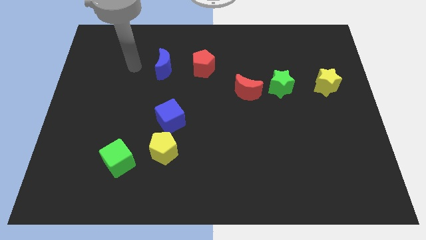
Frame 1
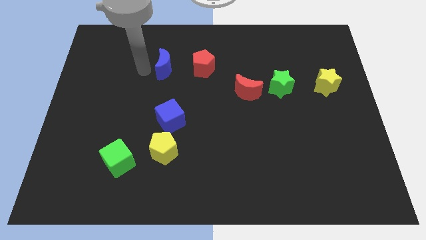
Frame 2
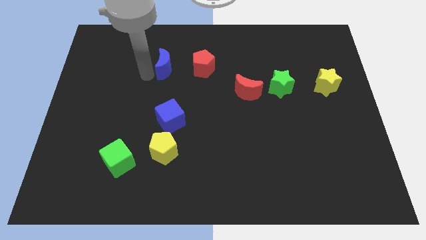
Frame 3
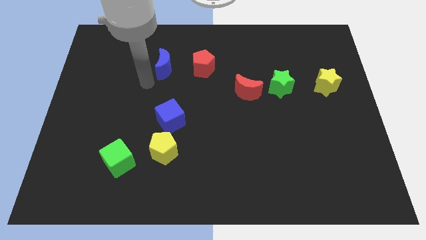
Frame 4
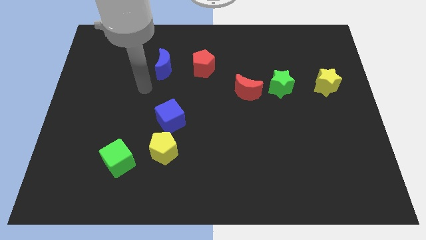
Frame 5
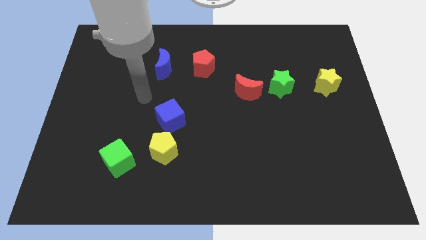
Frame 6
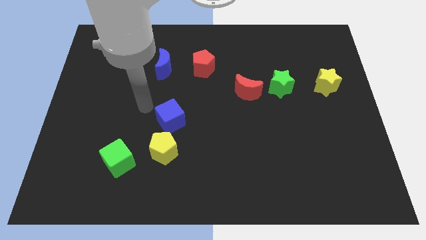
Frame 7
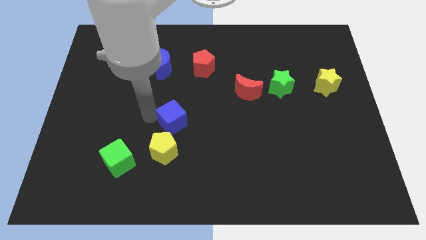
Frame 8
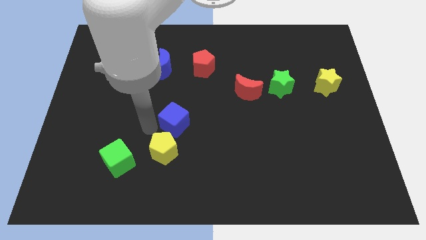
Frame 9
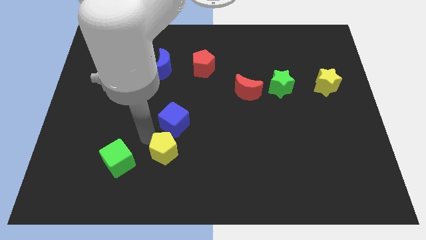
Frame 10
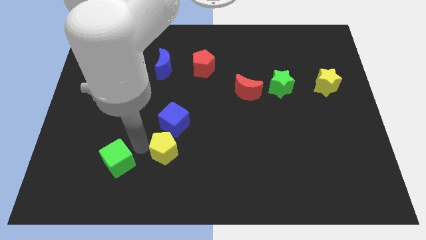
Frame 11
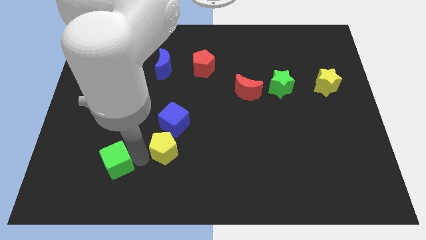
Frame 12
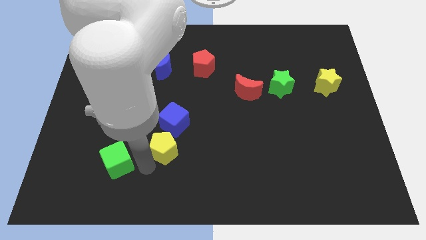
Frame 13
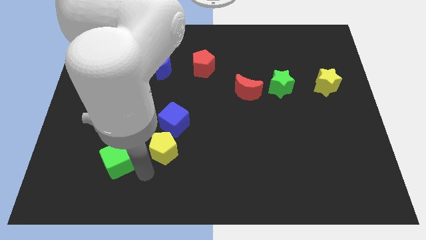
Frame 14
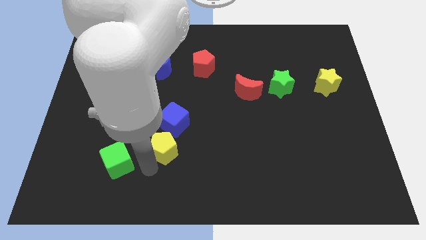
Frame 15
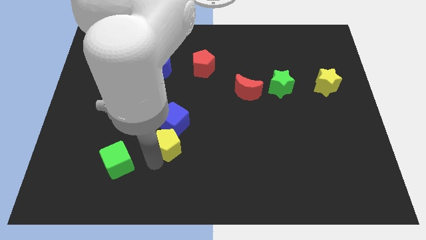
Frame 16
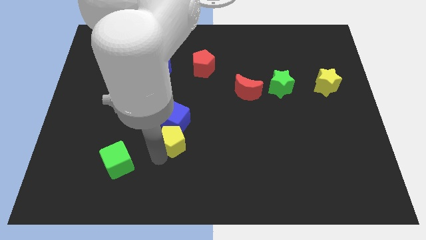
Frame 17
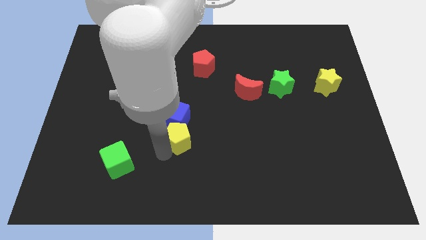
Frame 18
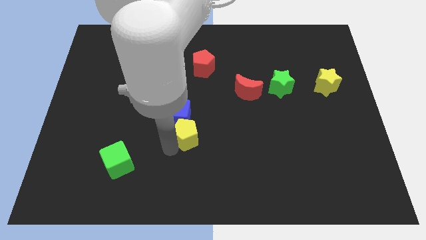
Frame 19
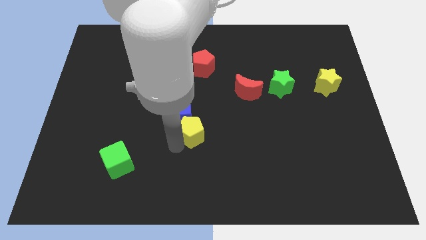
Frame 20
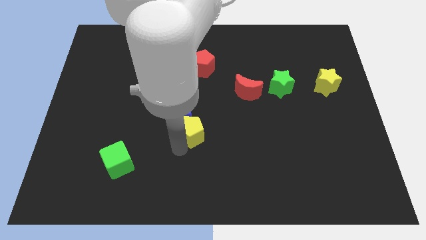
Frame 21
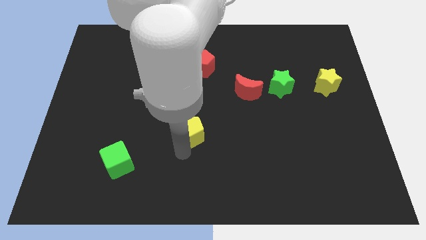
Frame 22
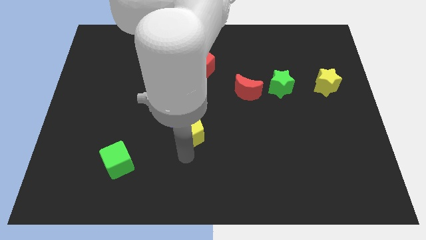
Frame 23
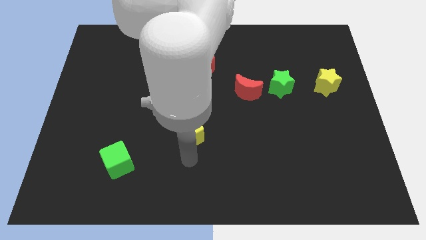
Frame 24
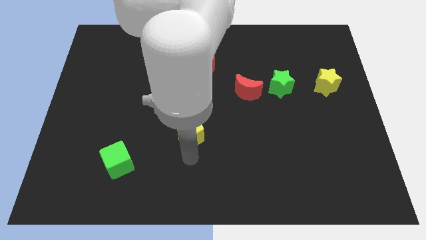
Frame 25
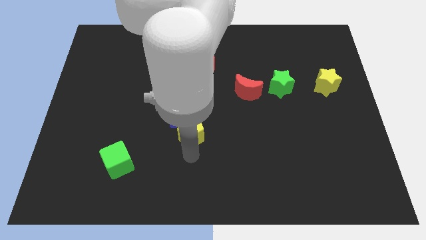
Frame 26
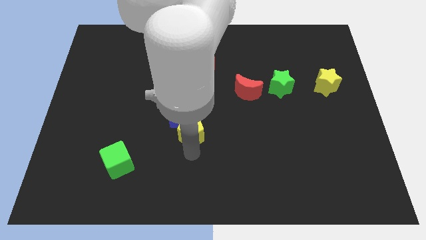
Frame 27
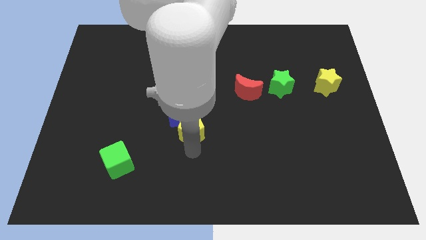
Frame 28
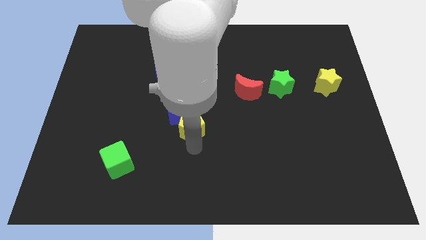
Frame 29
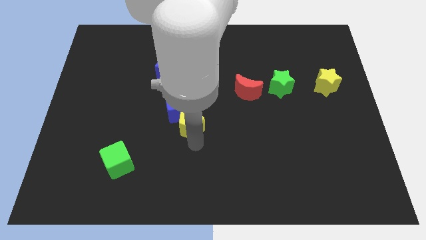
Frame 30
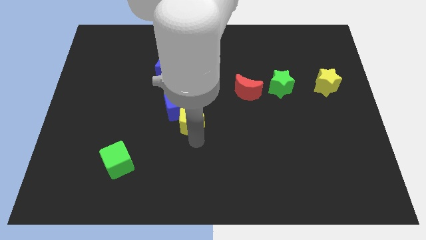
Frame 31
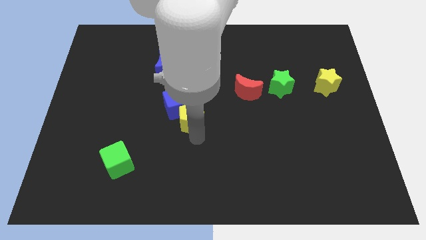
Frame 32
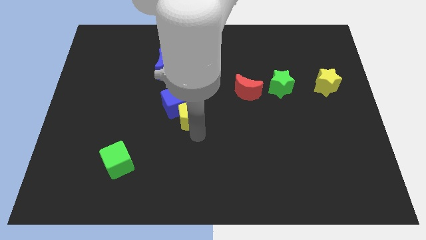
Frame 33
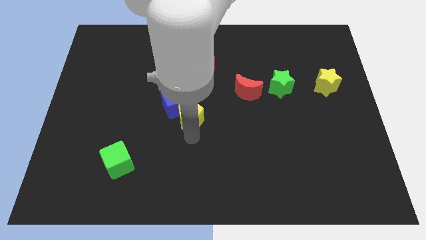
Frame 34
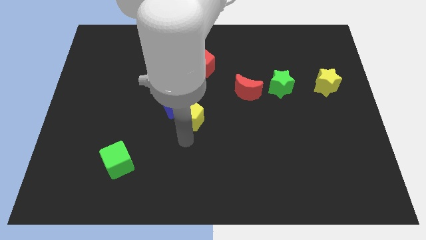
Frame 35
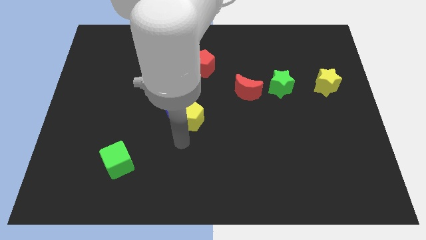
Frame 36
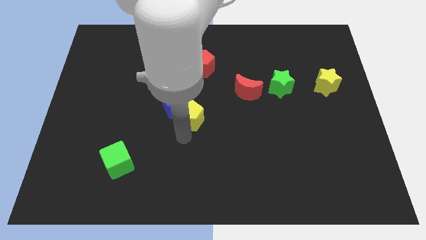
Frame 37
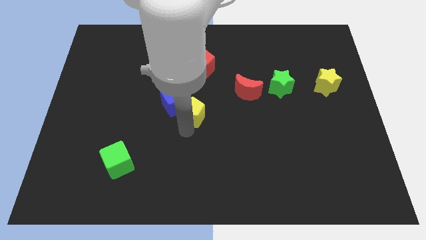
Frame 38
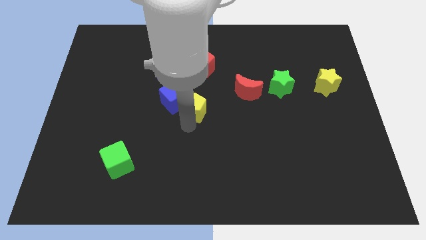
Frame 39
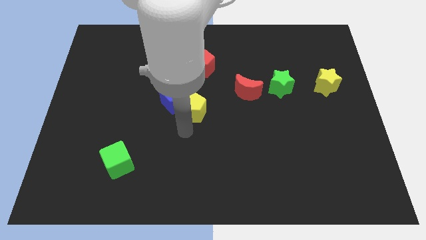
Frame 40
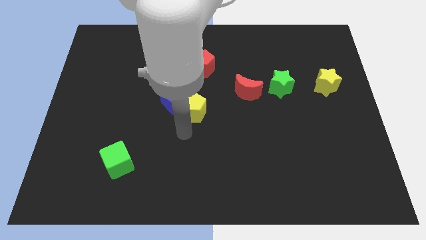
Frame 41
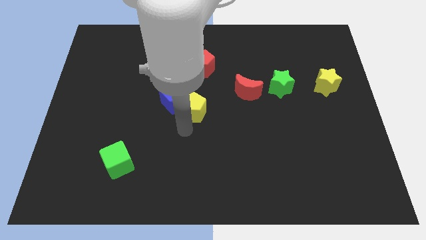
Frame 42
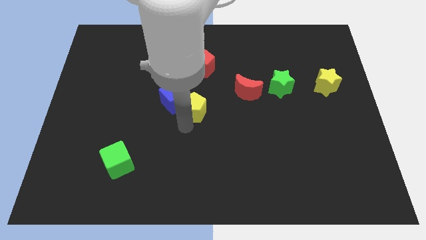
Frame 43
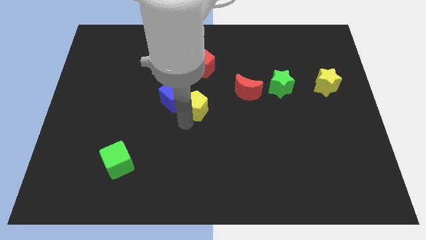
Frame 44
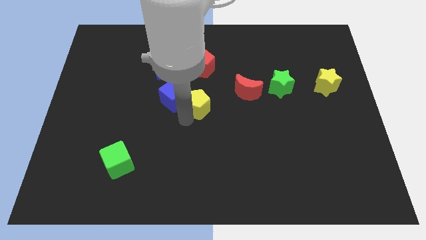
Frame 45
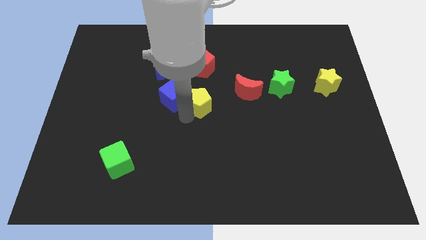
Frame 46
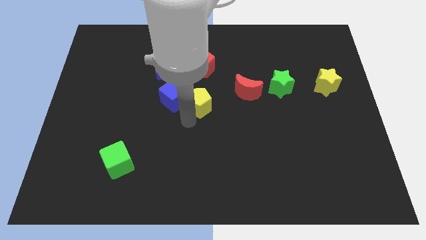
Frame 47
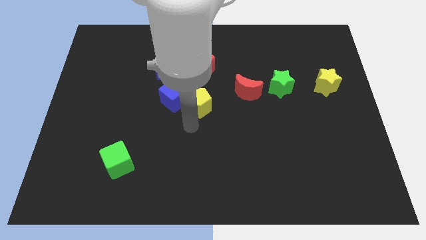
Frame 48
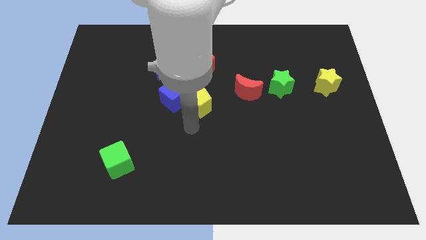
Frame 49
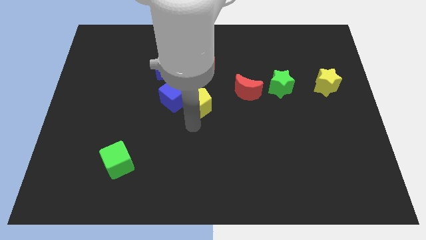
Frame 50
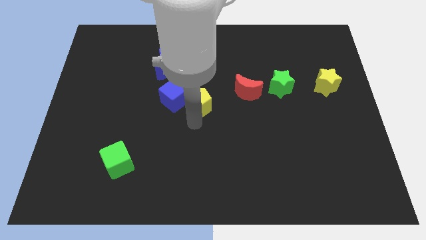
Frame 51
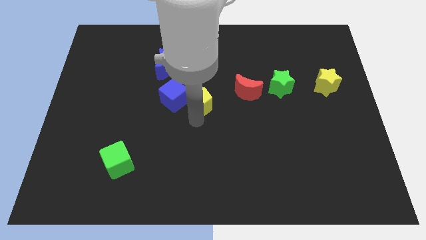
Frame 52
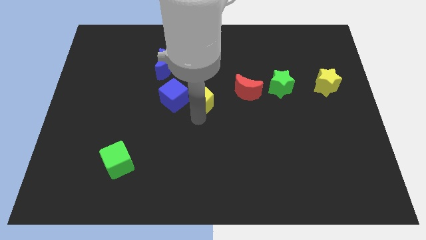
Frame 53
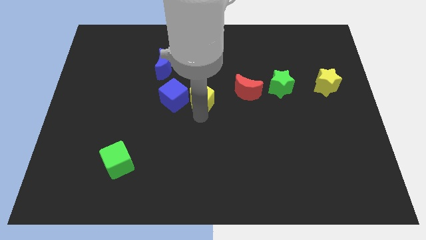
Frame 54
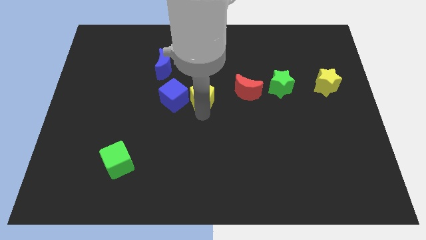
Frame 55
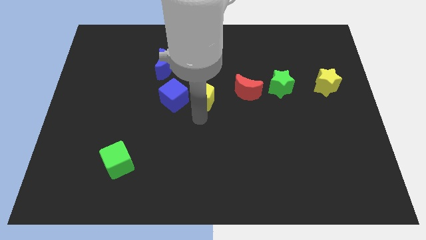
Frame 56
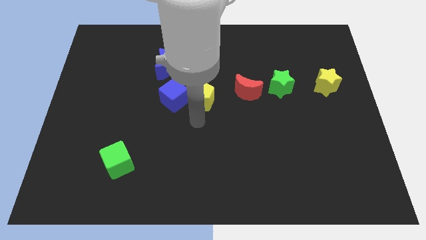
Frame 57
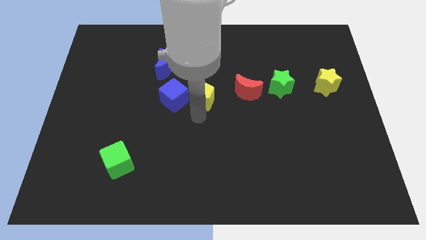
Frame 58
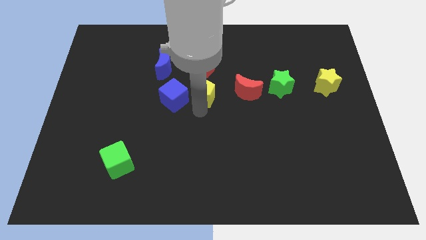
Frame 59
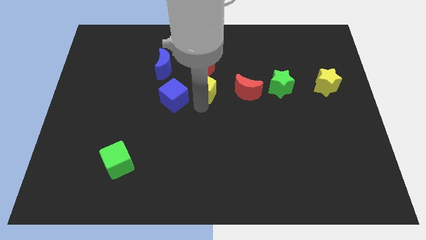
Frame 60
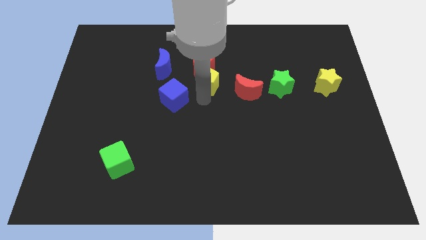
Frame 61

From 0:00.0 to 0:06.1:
put the yellow pentagon to the red pentagon
